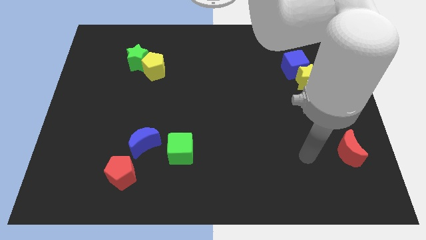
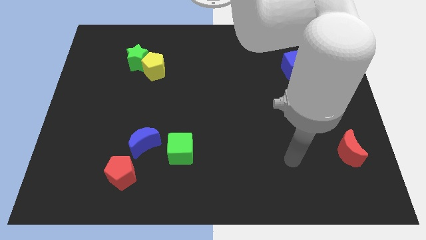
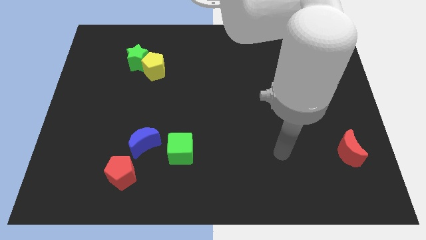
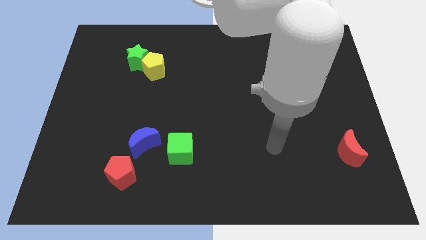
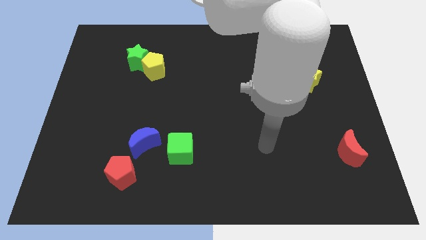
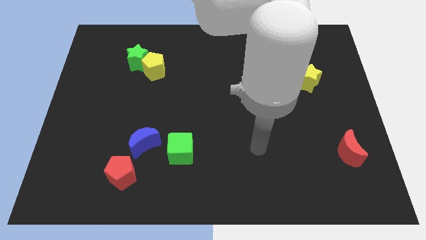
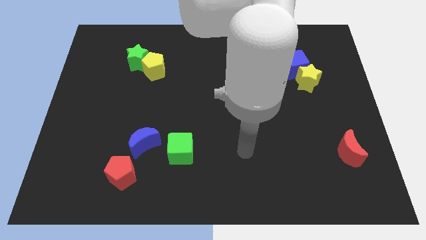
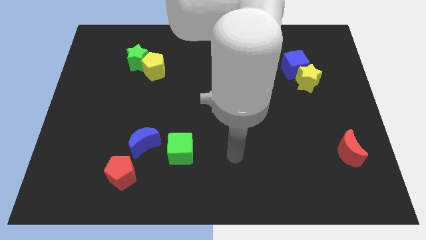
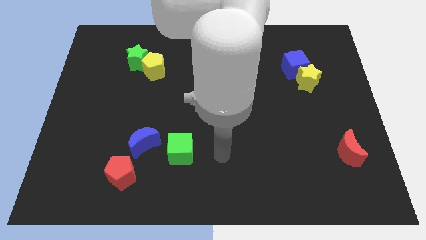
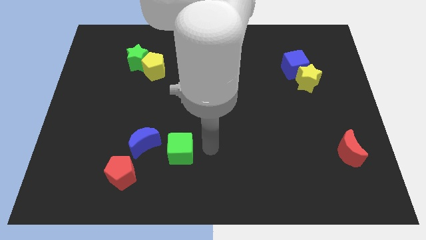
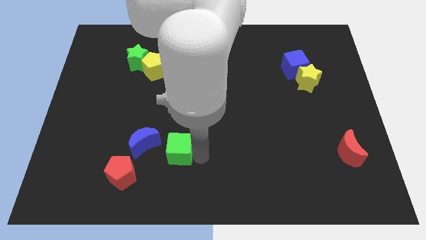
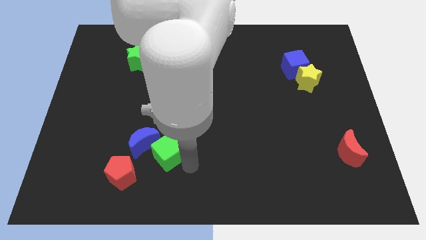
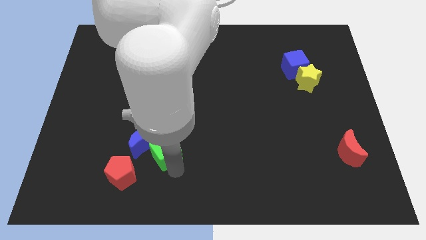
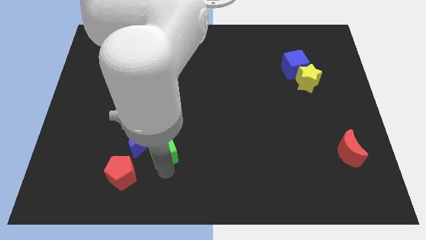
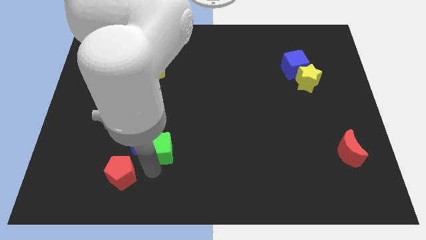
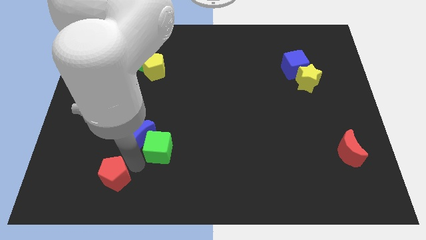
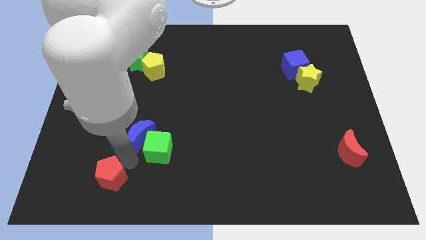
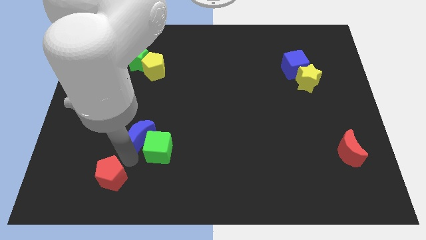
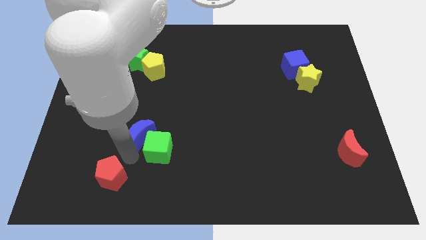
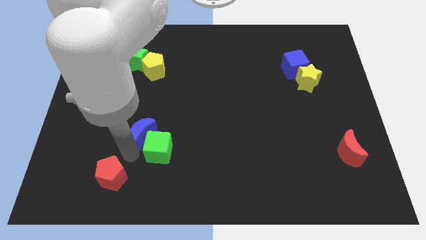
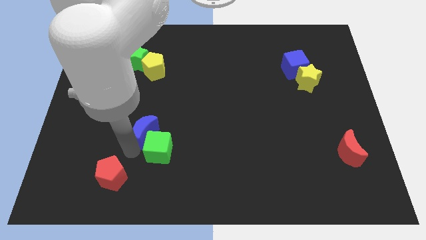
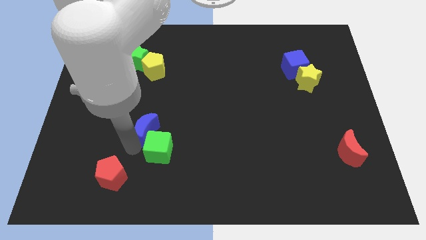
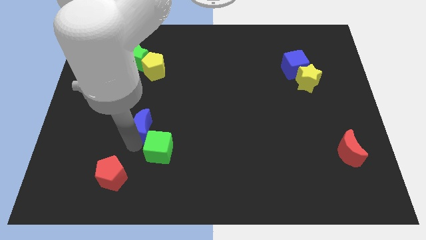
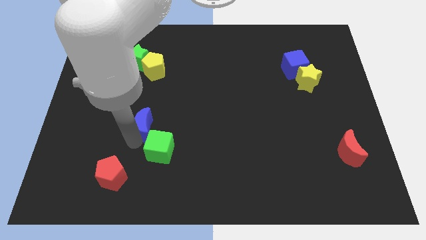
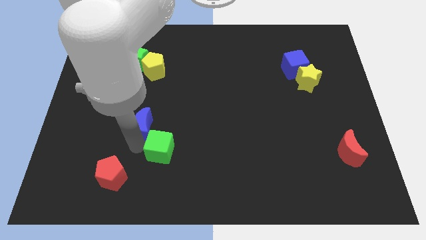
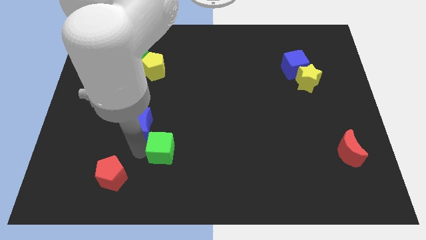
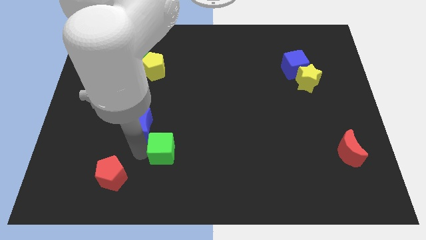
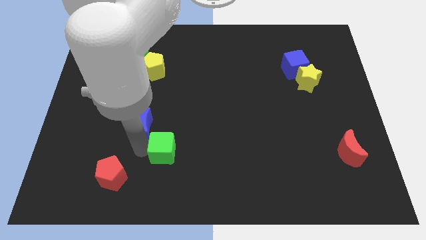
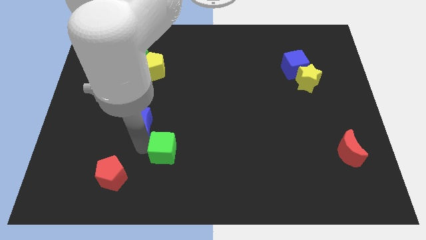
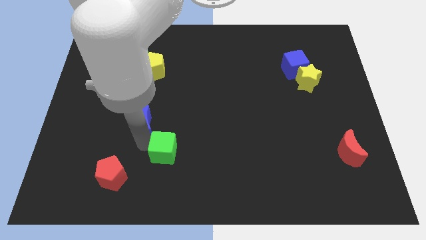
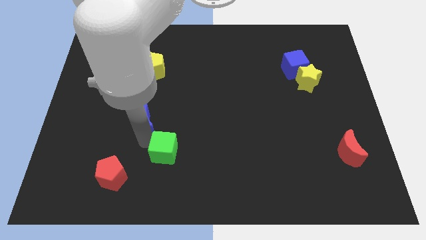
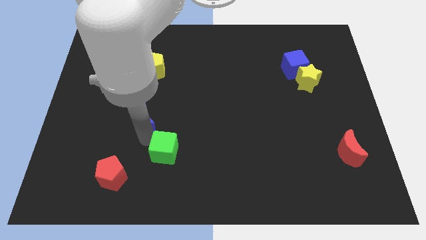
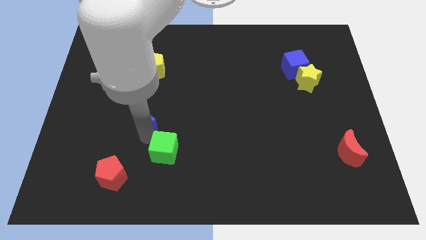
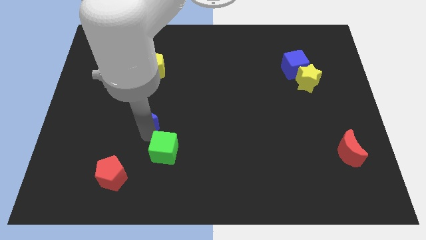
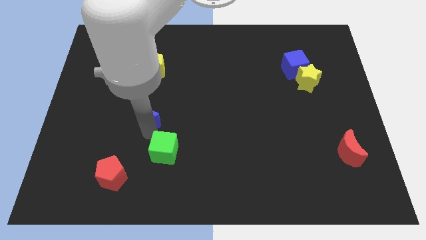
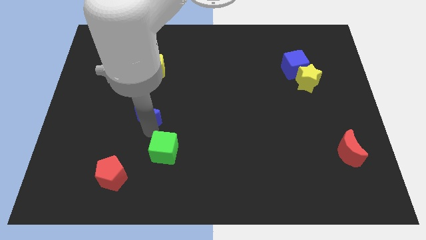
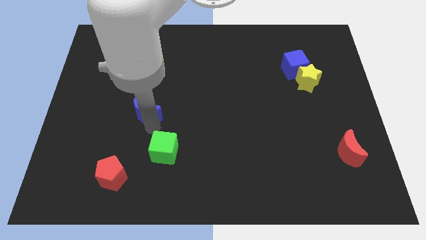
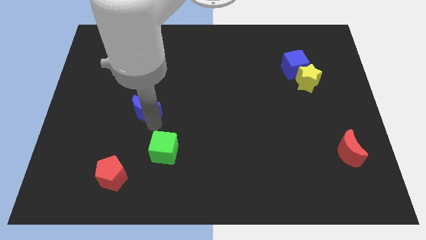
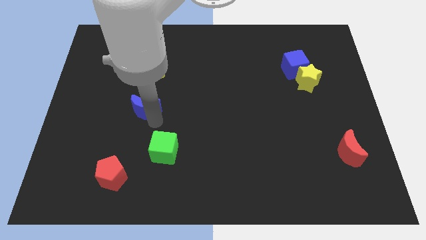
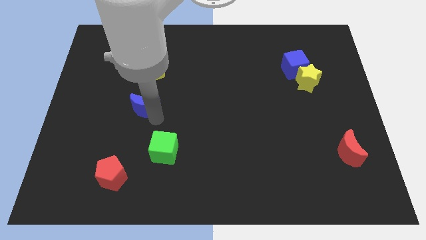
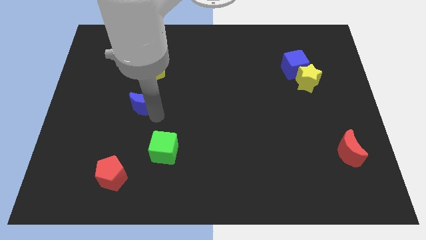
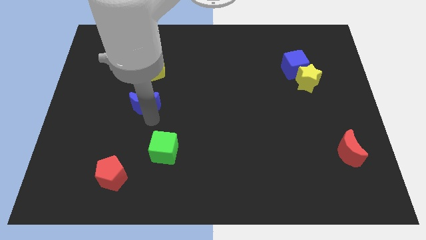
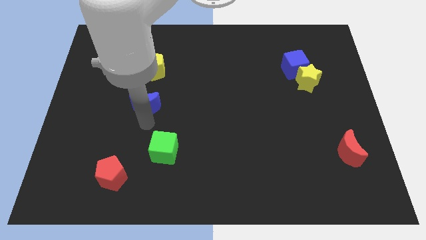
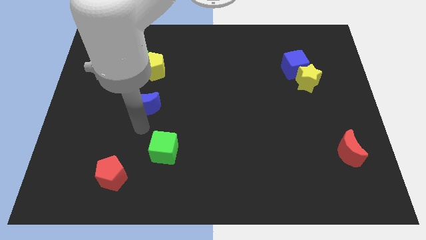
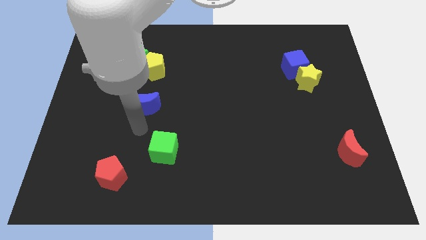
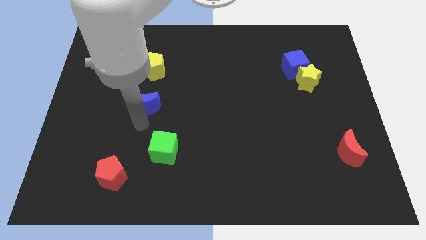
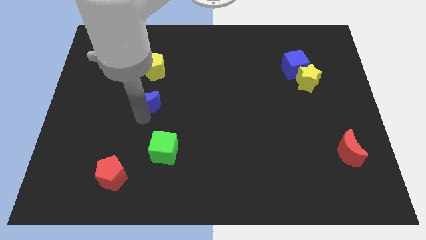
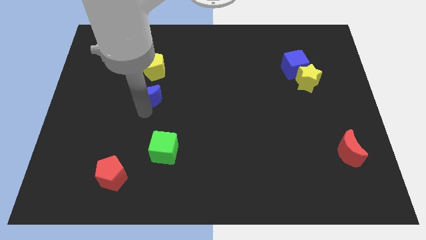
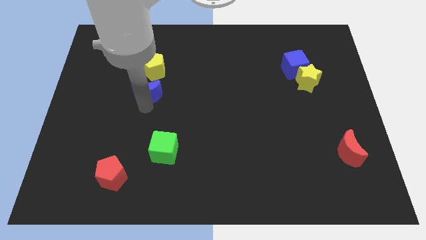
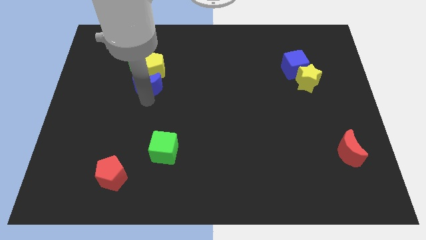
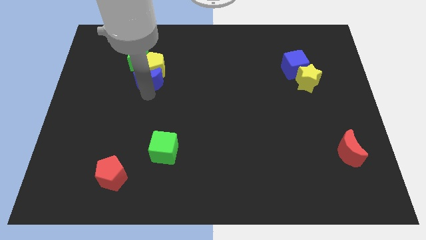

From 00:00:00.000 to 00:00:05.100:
put the blue moon towards the yellow pentagon

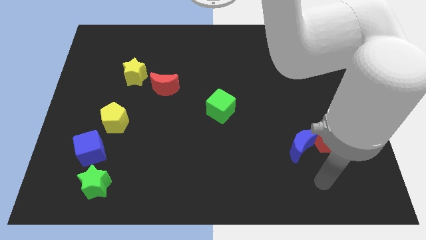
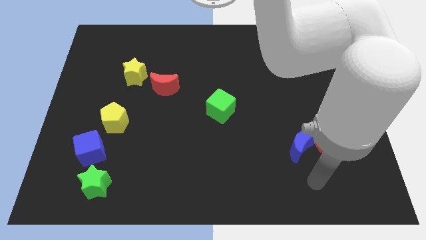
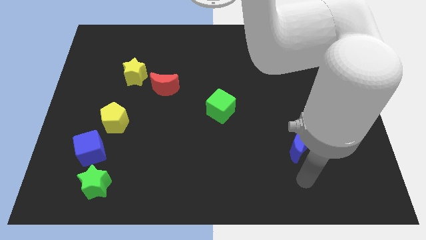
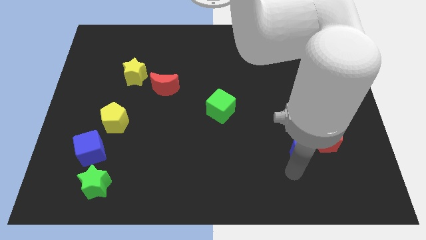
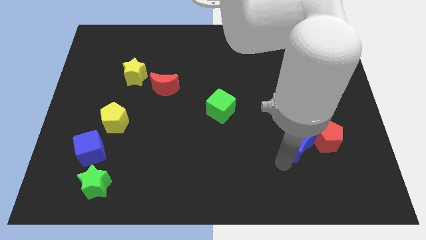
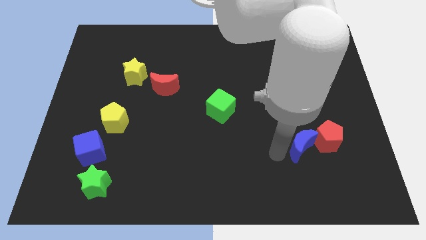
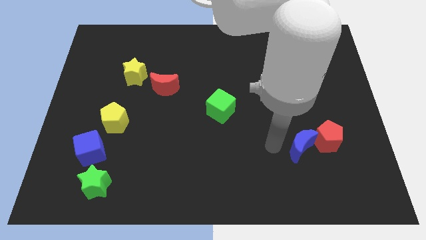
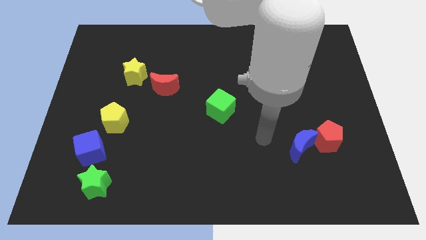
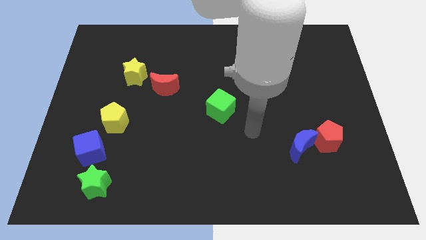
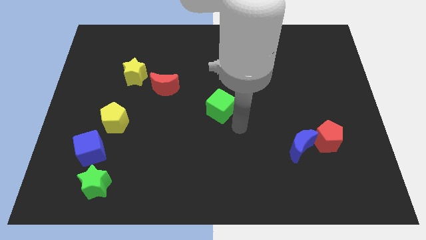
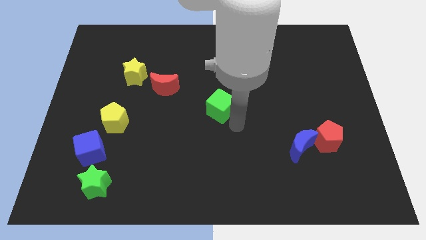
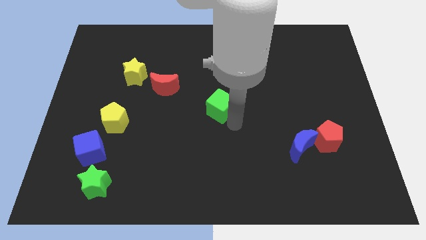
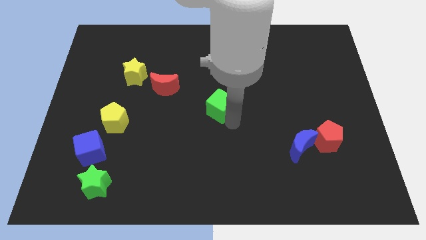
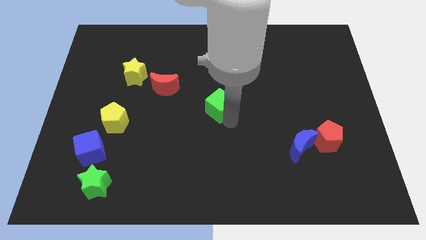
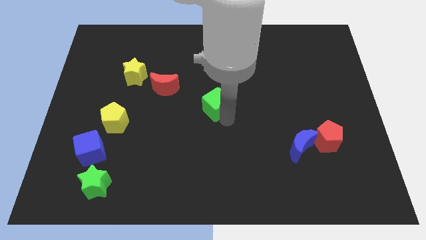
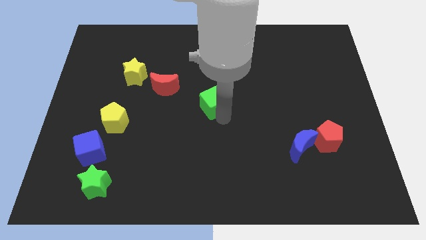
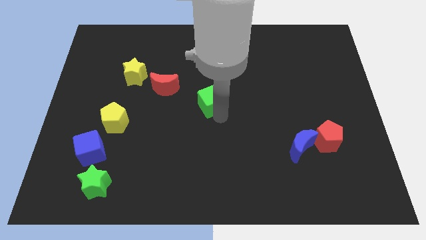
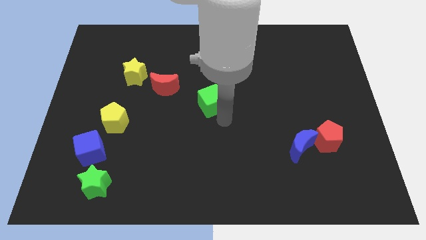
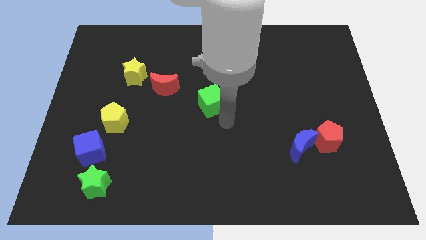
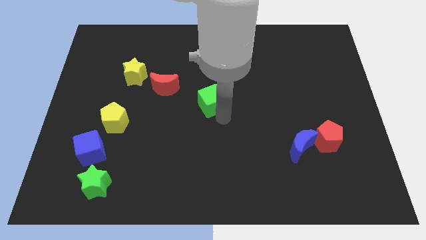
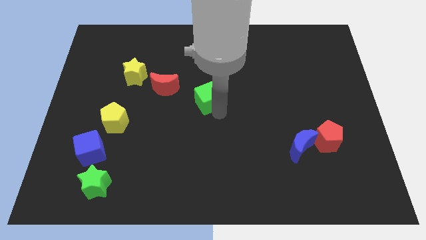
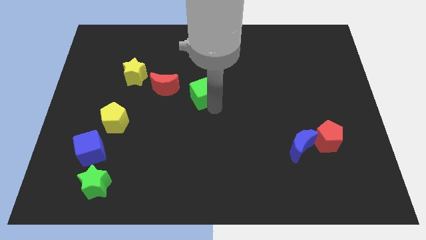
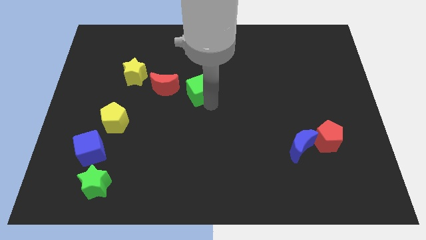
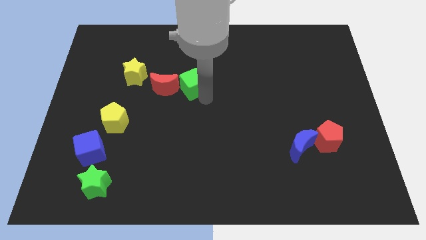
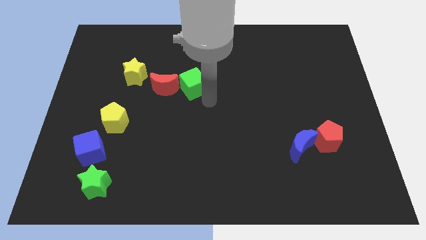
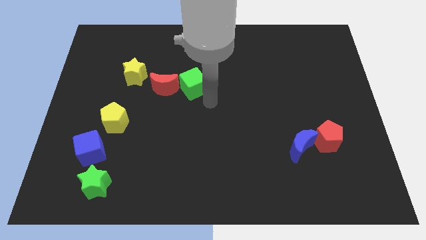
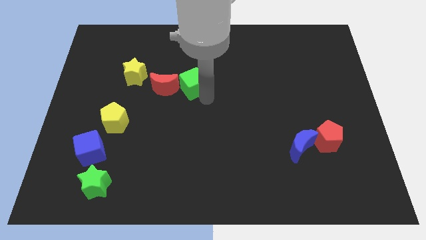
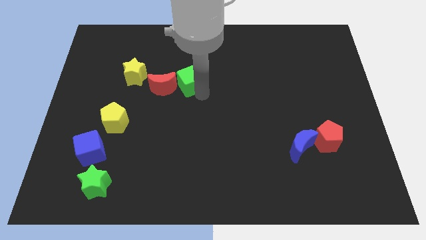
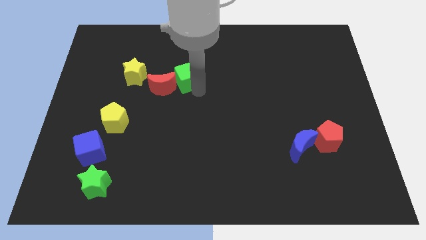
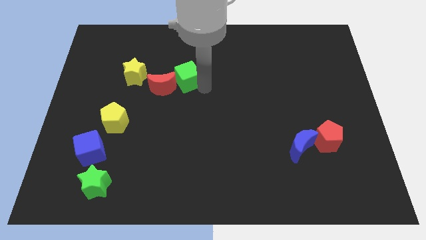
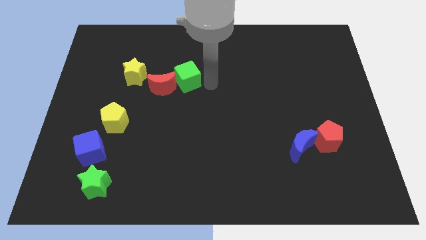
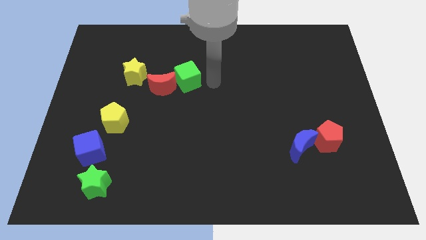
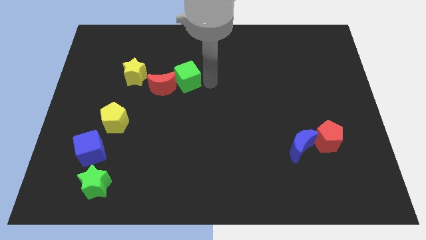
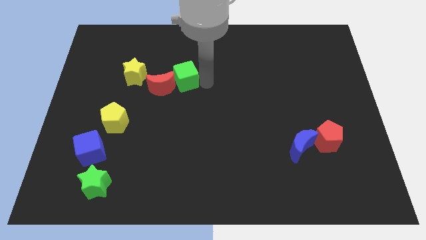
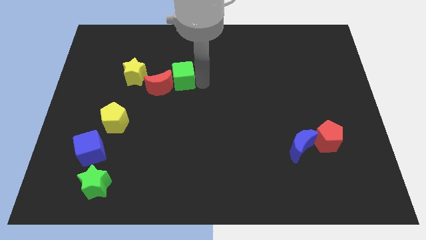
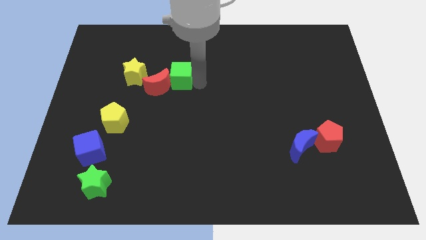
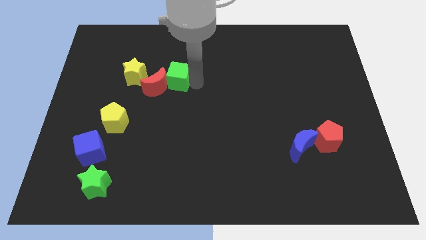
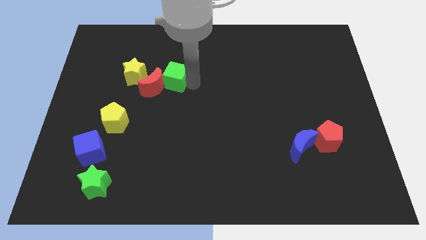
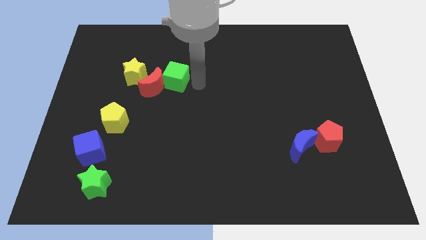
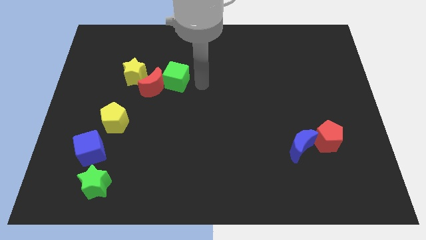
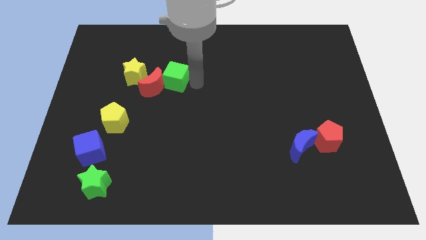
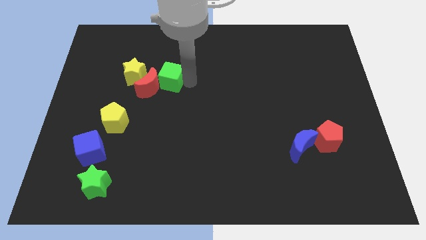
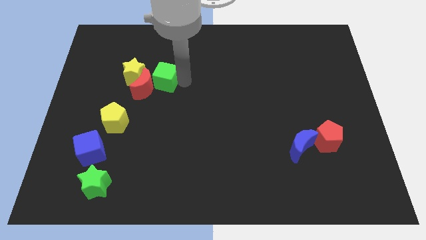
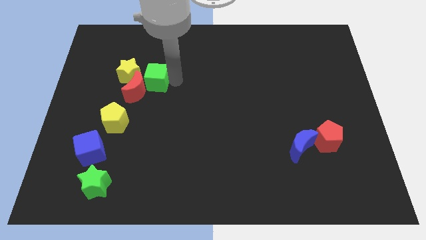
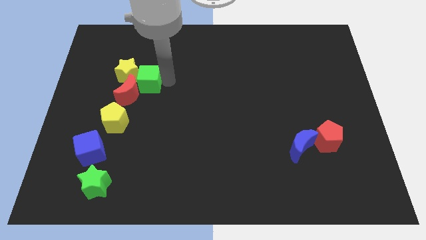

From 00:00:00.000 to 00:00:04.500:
push the green cube next to the yellow star
